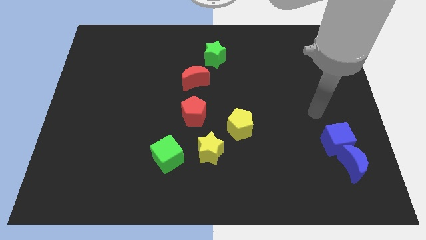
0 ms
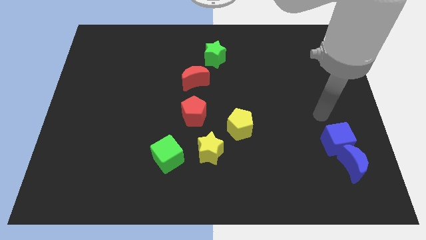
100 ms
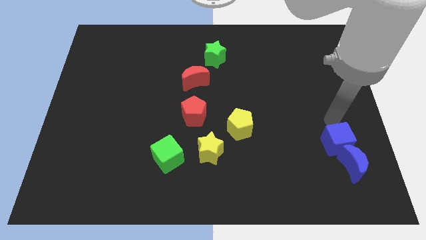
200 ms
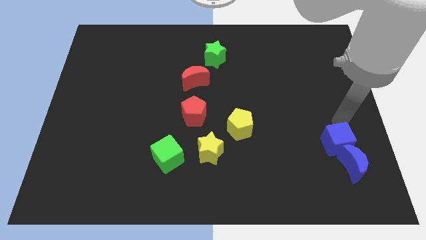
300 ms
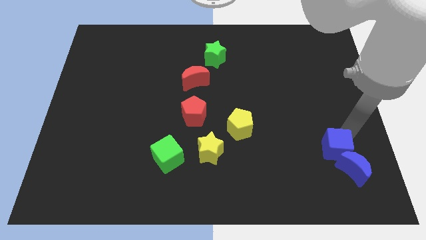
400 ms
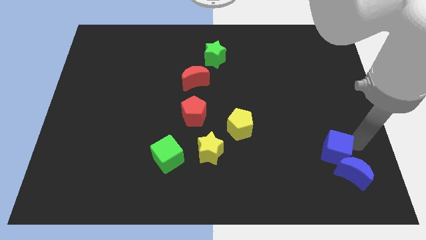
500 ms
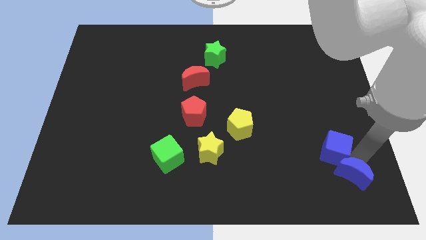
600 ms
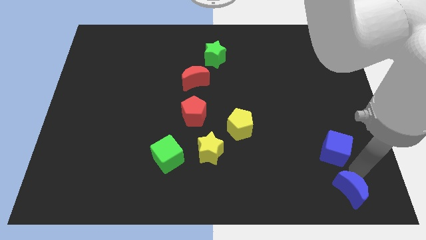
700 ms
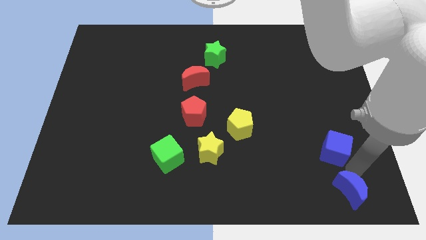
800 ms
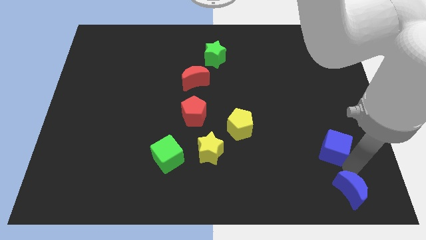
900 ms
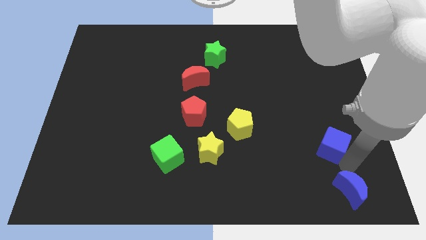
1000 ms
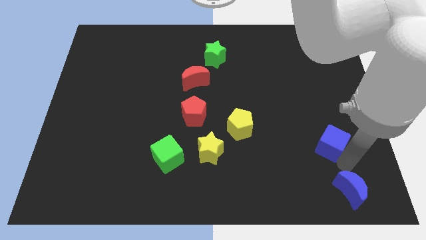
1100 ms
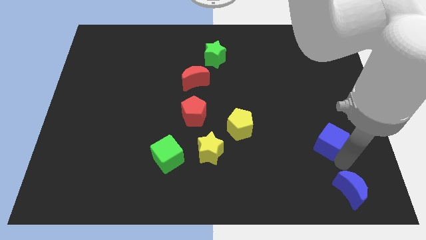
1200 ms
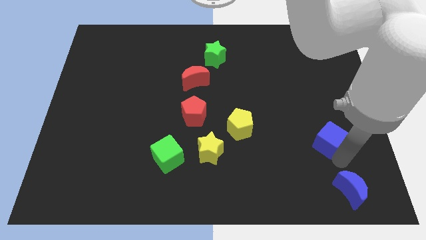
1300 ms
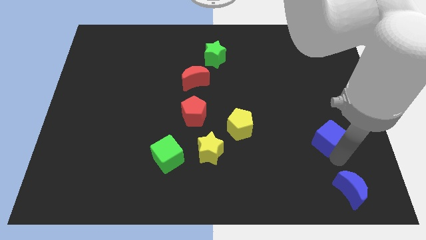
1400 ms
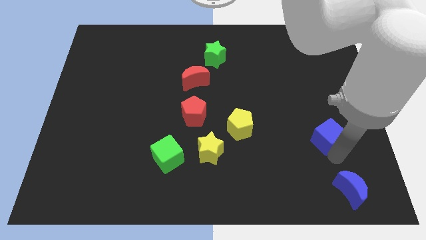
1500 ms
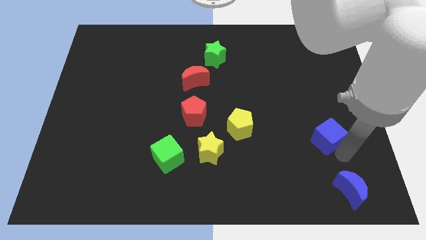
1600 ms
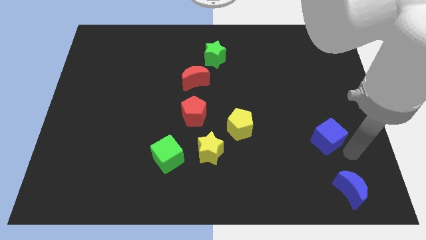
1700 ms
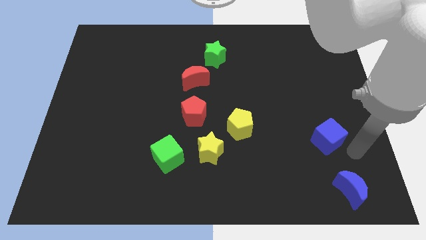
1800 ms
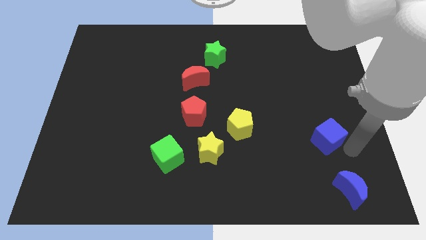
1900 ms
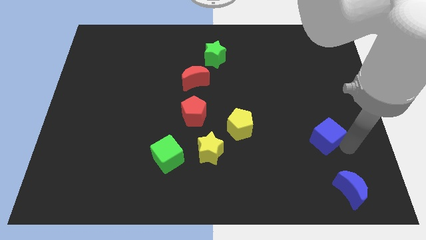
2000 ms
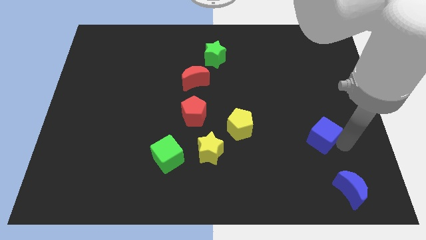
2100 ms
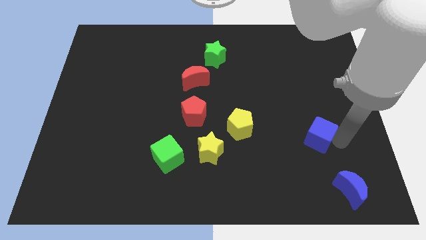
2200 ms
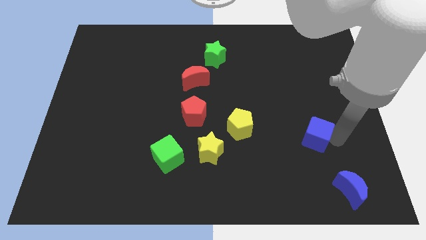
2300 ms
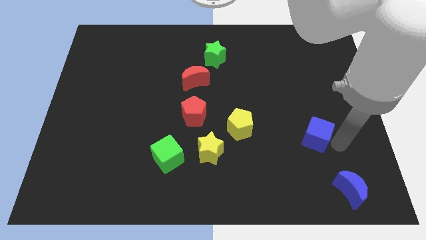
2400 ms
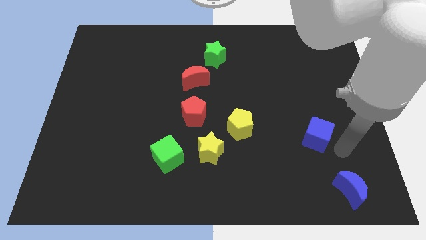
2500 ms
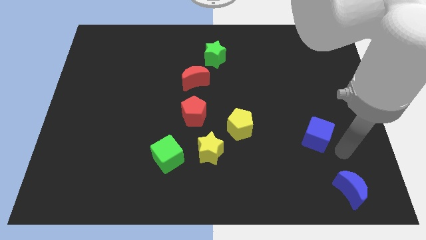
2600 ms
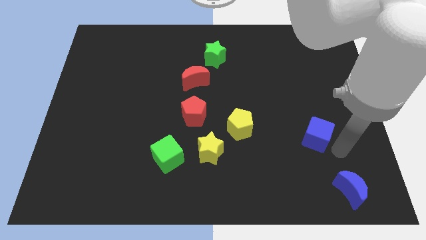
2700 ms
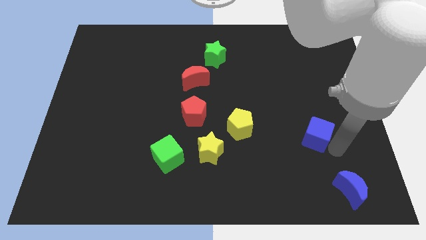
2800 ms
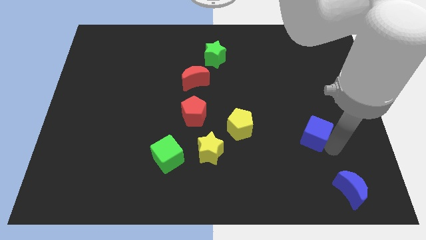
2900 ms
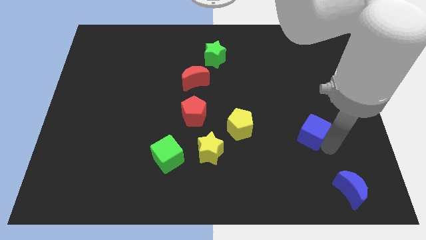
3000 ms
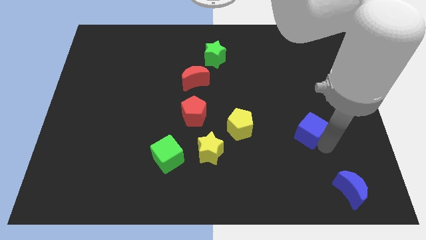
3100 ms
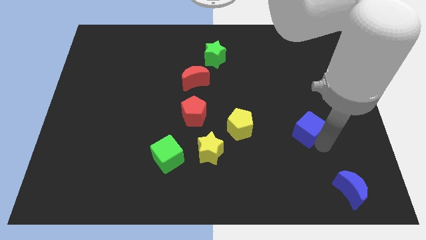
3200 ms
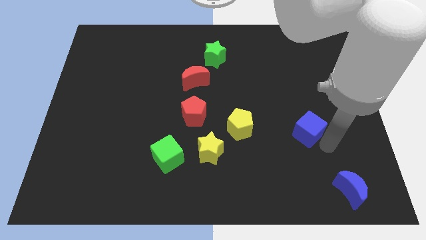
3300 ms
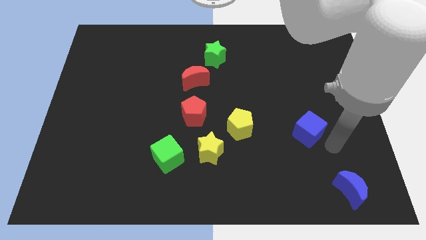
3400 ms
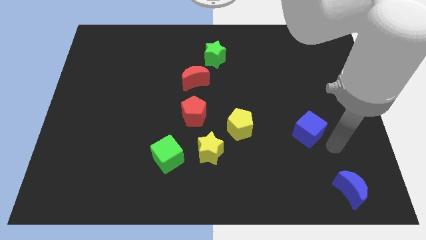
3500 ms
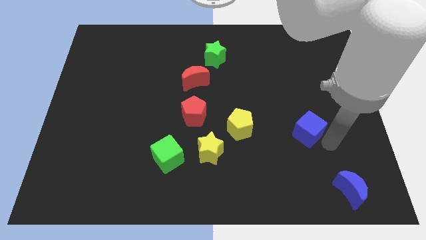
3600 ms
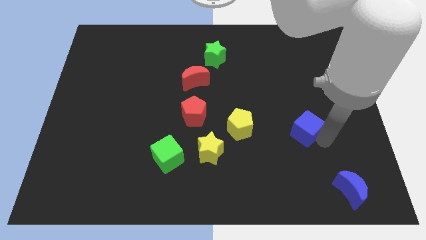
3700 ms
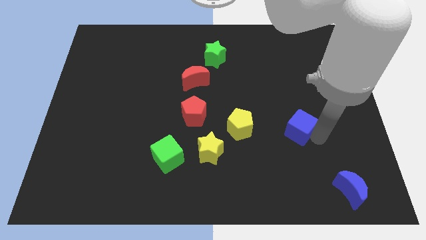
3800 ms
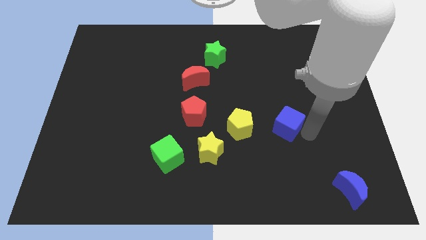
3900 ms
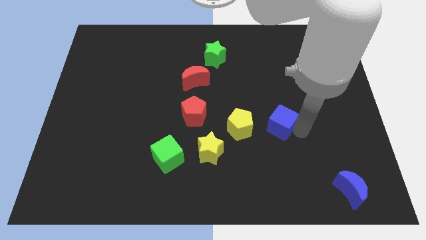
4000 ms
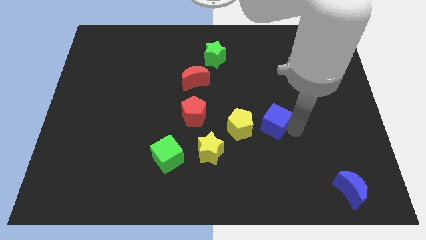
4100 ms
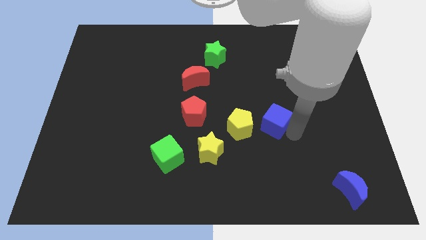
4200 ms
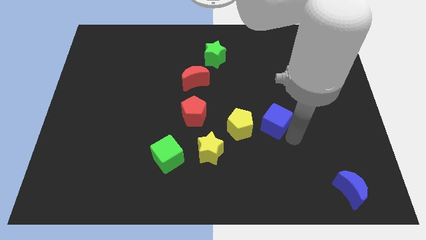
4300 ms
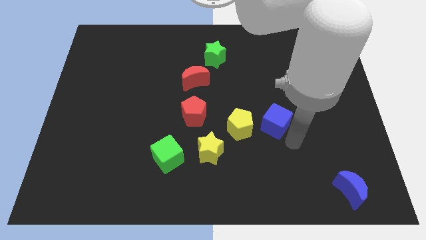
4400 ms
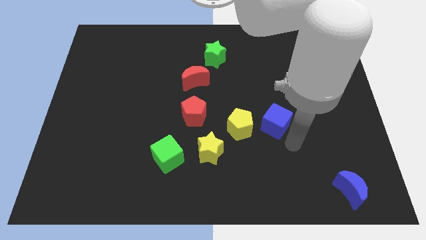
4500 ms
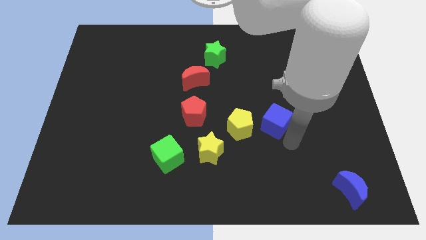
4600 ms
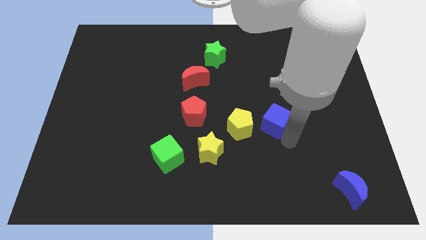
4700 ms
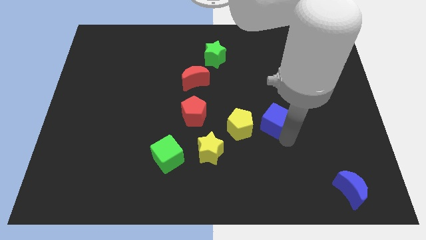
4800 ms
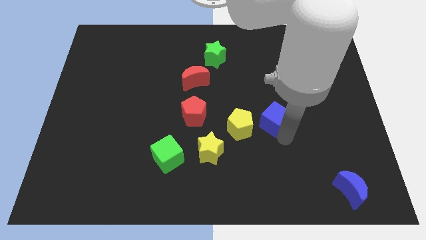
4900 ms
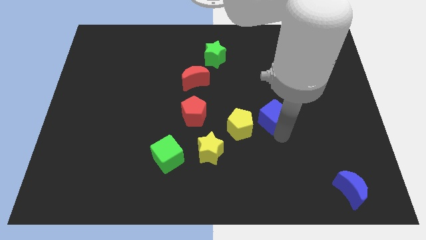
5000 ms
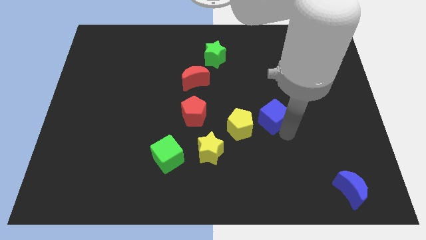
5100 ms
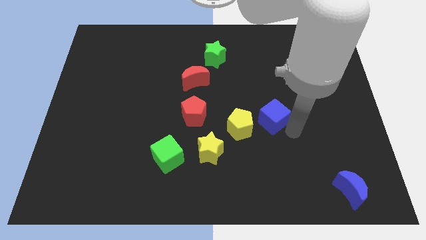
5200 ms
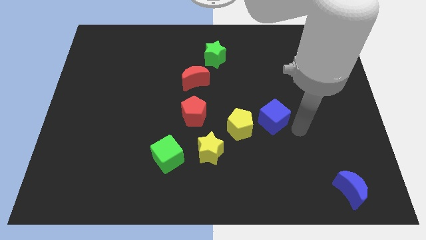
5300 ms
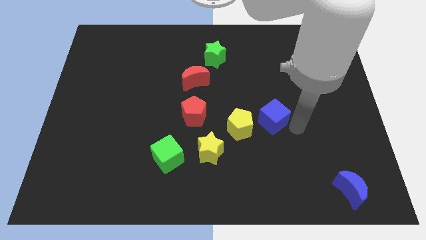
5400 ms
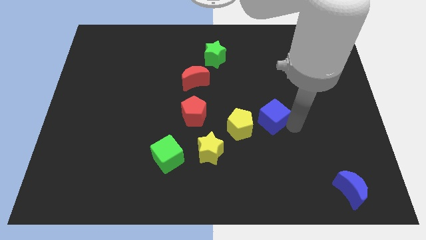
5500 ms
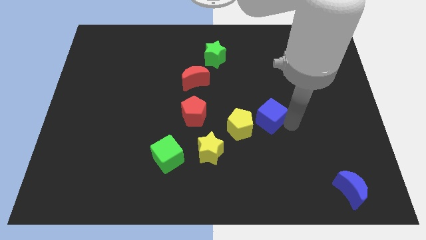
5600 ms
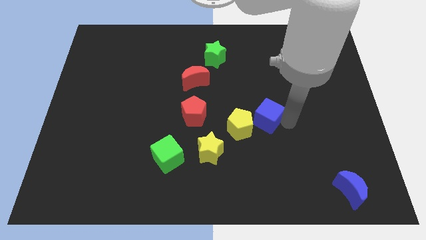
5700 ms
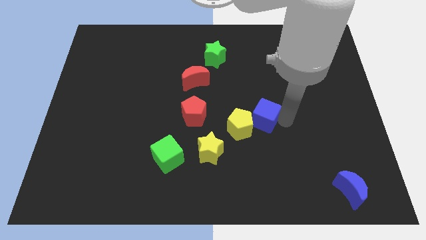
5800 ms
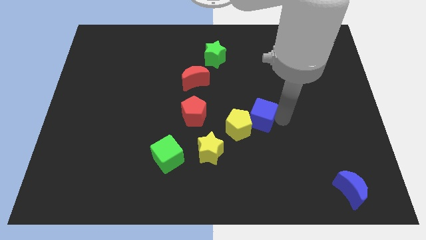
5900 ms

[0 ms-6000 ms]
slide the blue cube to the middle of the board
